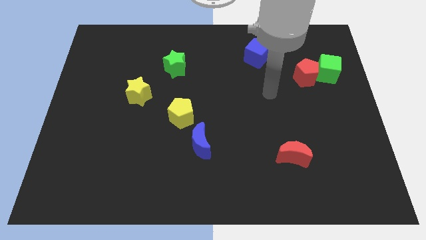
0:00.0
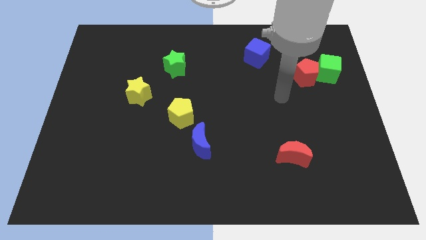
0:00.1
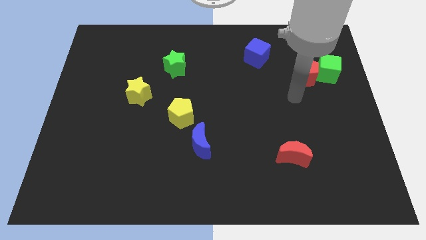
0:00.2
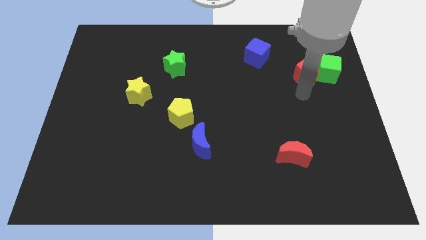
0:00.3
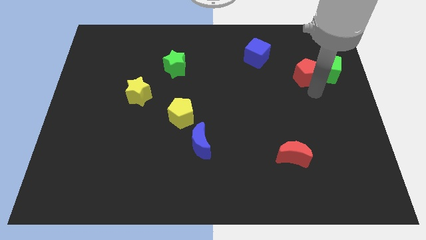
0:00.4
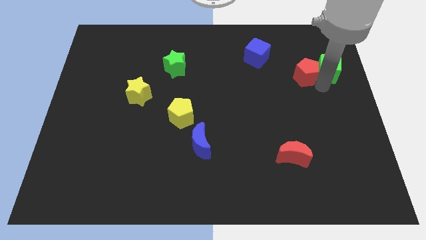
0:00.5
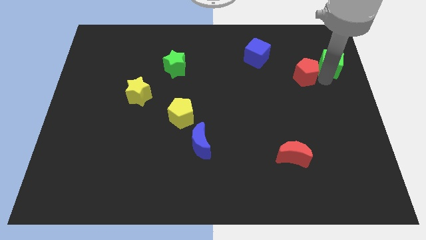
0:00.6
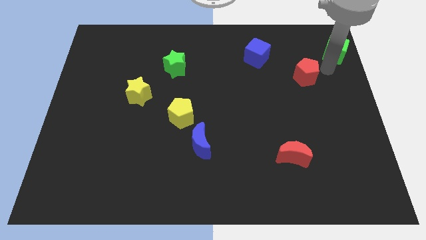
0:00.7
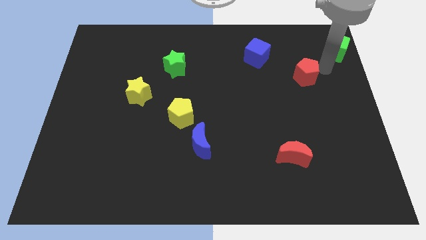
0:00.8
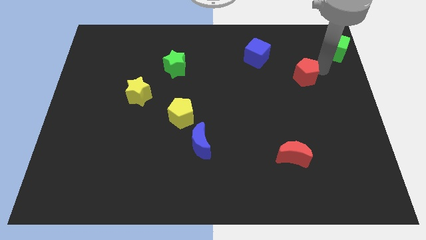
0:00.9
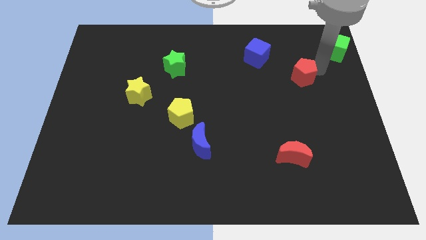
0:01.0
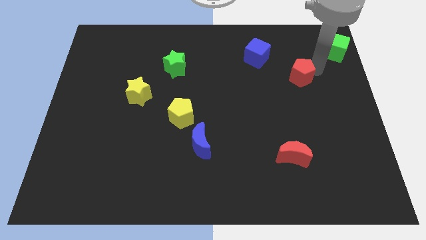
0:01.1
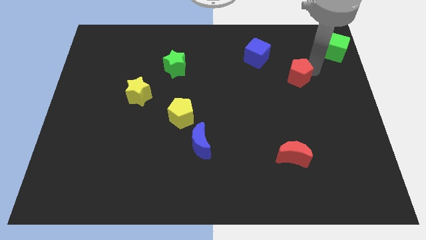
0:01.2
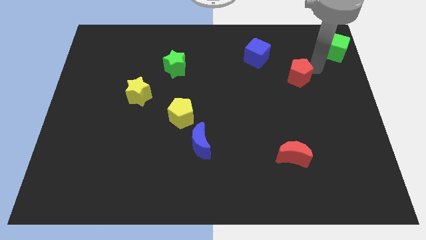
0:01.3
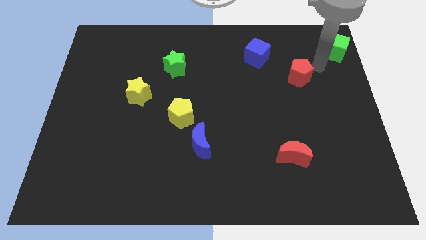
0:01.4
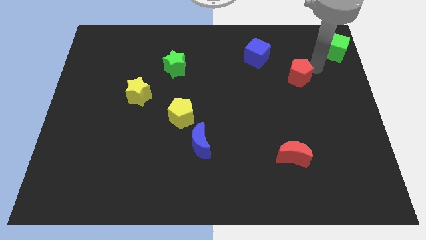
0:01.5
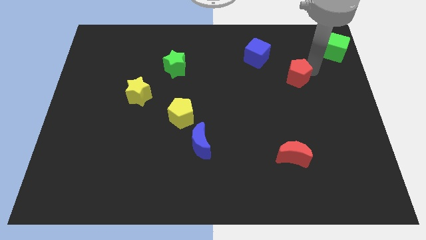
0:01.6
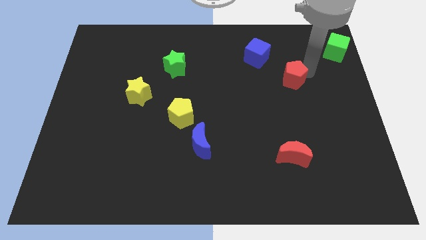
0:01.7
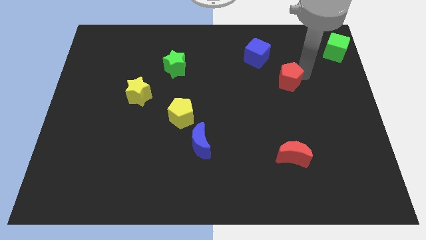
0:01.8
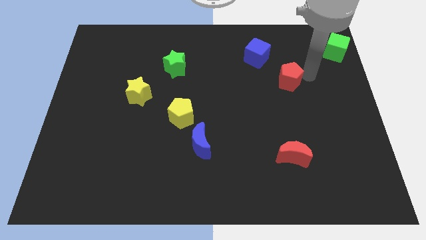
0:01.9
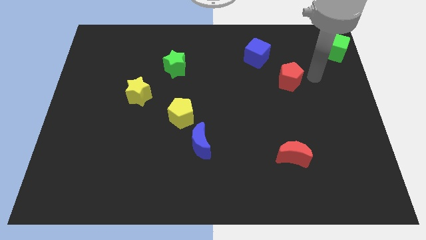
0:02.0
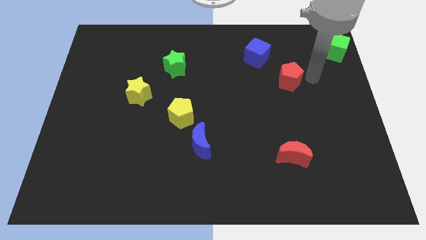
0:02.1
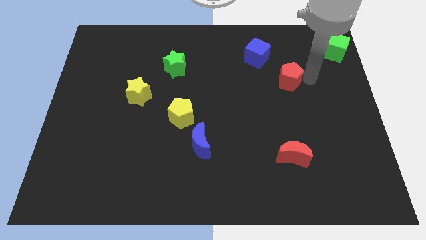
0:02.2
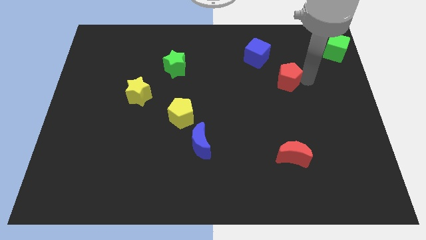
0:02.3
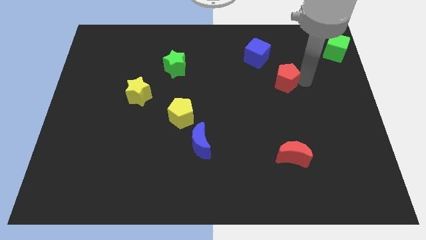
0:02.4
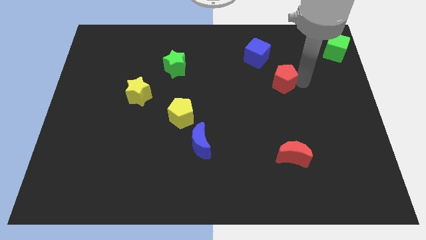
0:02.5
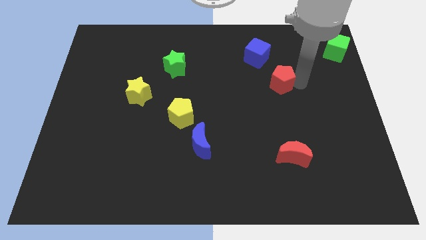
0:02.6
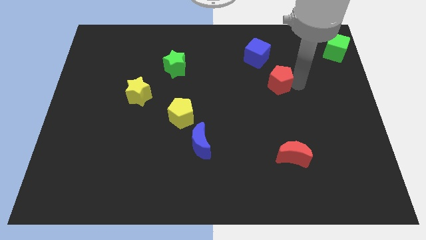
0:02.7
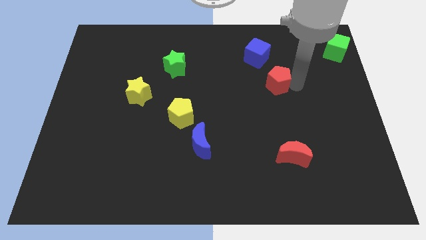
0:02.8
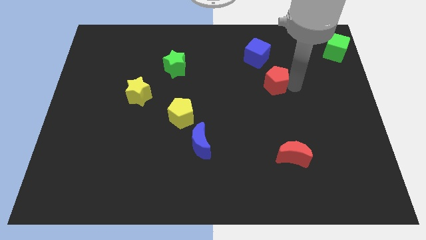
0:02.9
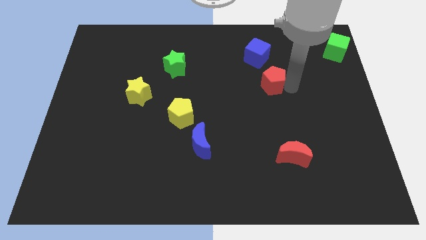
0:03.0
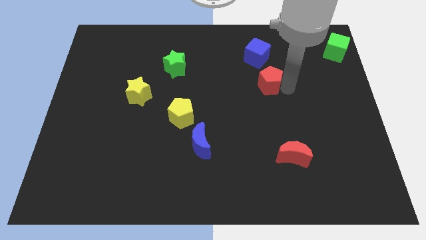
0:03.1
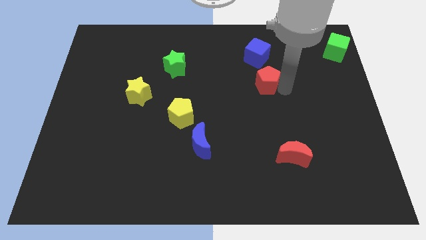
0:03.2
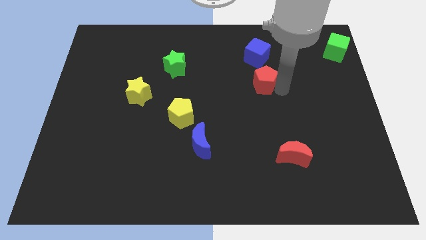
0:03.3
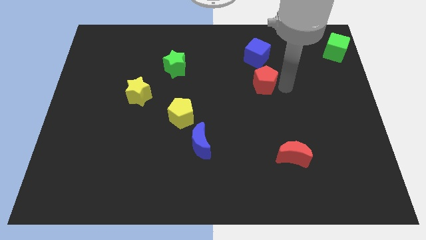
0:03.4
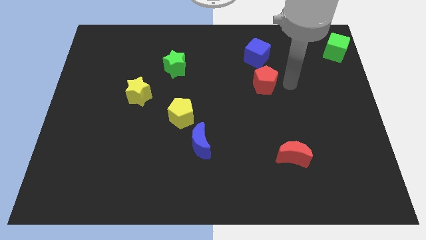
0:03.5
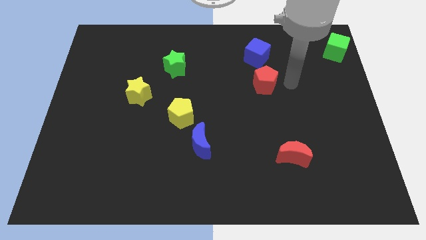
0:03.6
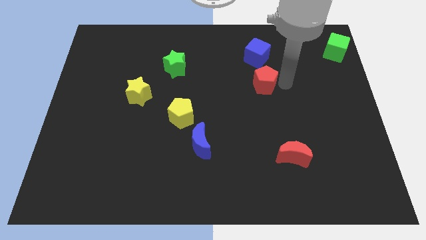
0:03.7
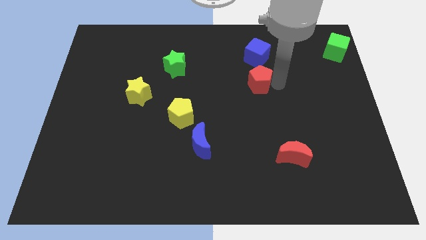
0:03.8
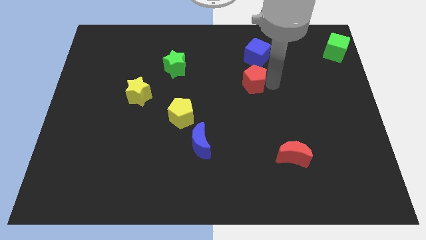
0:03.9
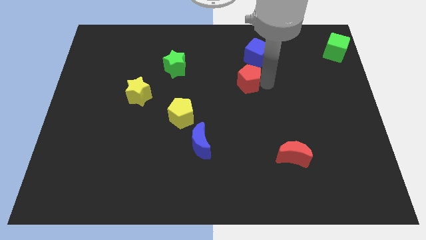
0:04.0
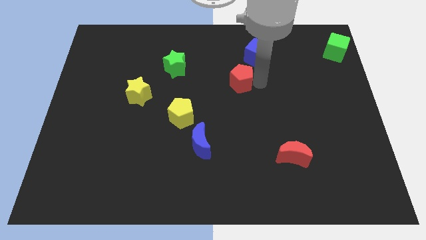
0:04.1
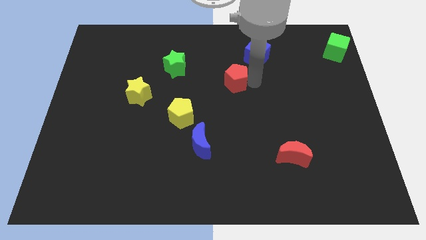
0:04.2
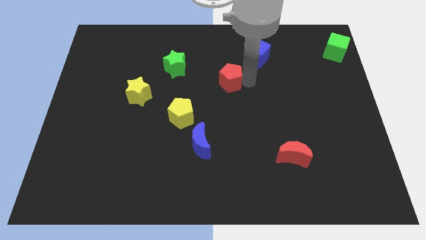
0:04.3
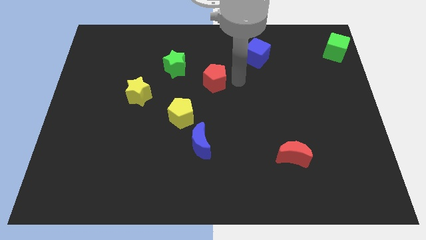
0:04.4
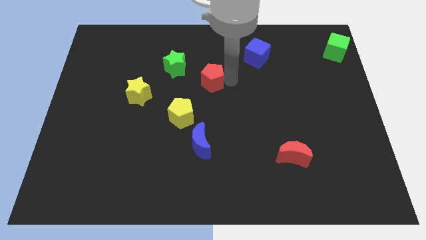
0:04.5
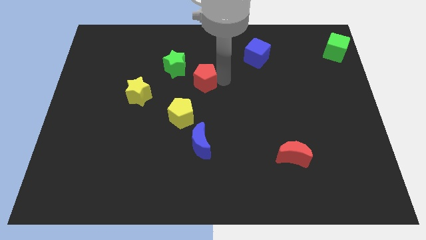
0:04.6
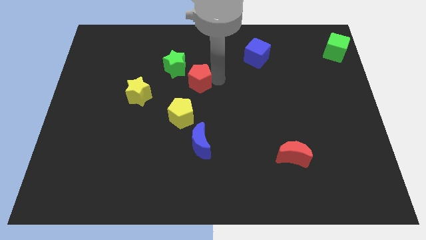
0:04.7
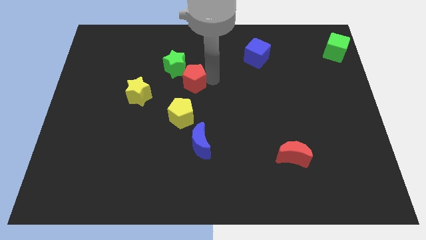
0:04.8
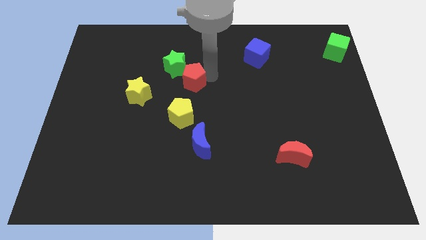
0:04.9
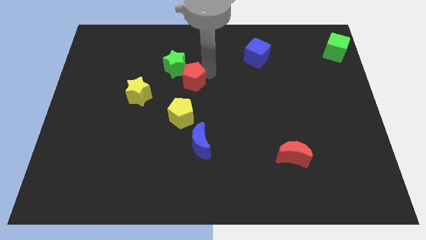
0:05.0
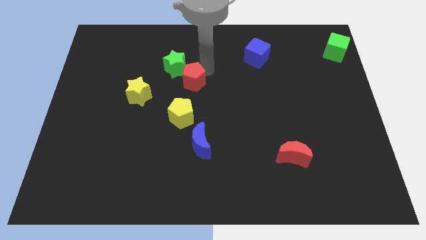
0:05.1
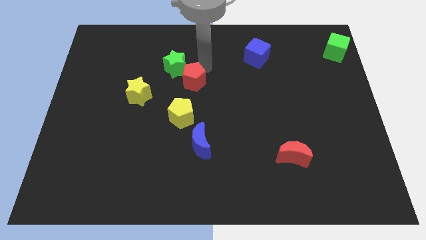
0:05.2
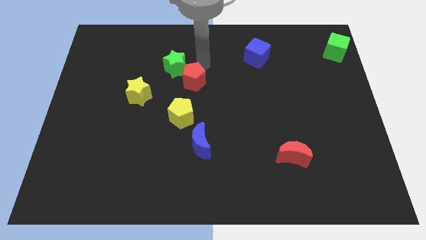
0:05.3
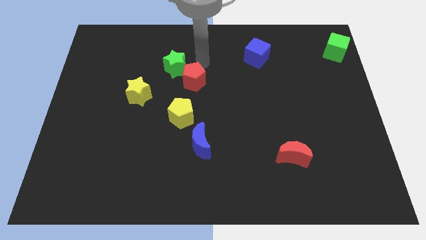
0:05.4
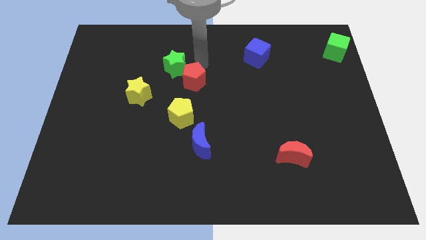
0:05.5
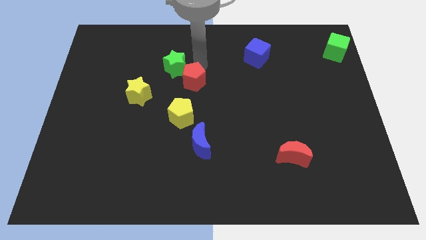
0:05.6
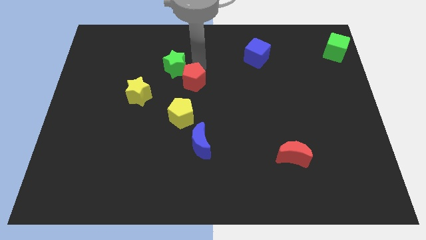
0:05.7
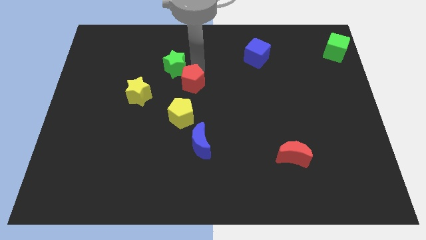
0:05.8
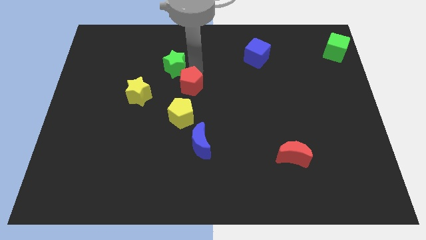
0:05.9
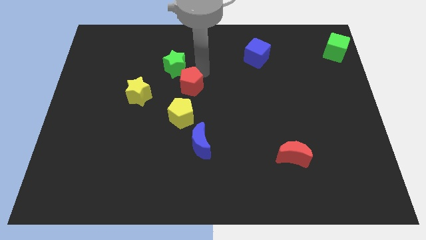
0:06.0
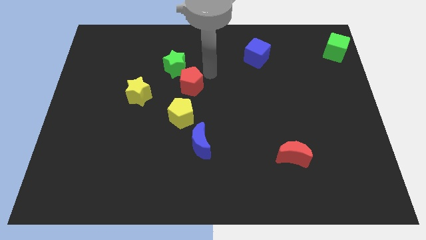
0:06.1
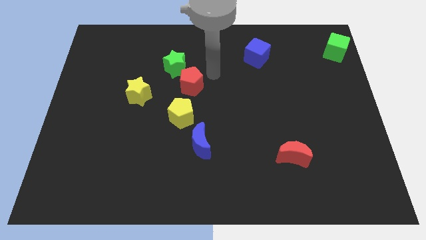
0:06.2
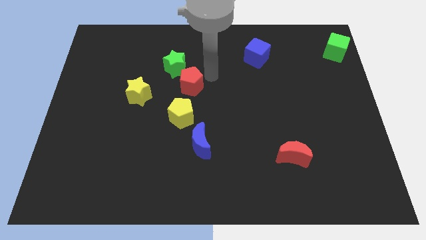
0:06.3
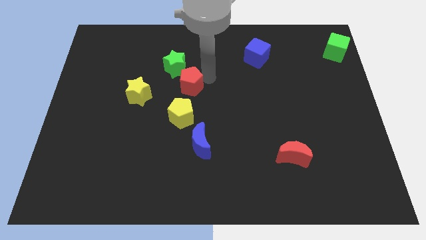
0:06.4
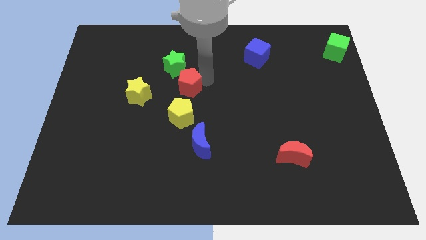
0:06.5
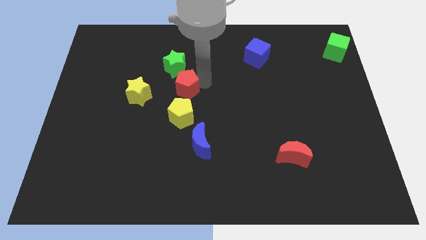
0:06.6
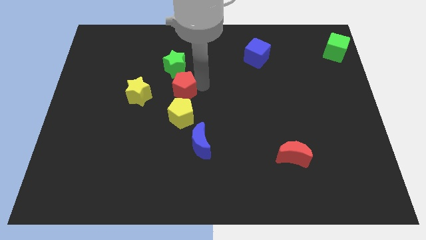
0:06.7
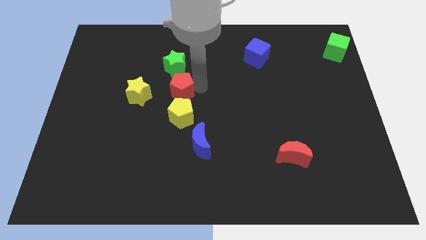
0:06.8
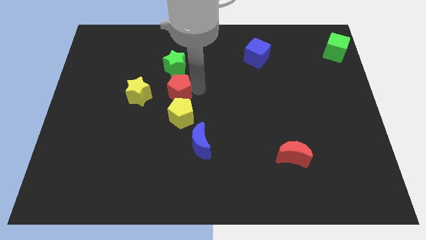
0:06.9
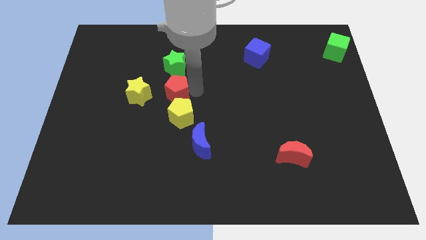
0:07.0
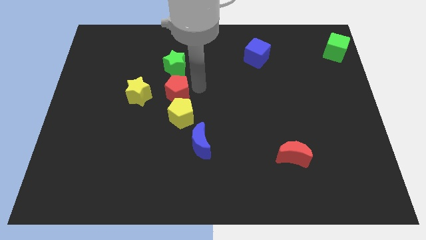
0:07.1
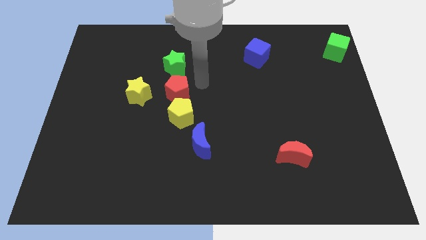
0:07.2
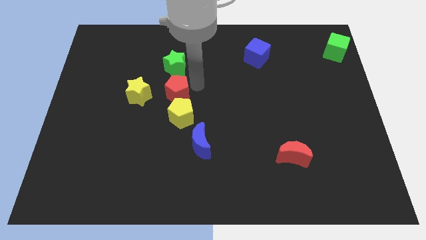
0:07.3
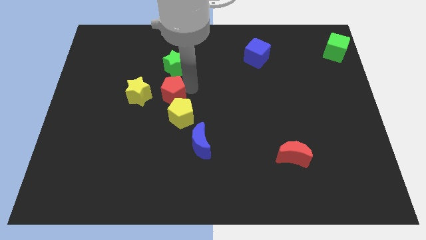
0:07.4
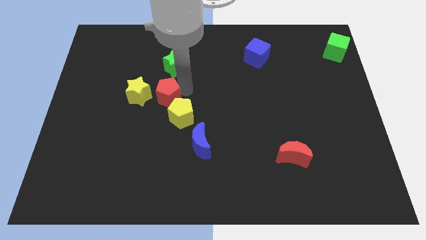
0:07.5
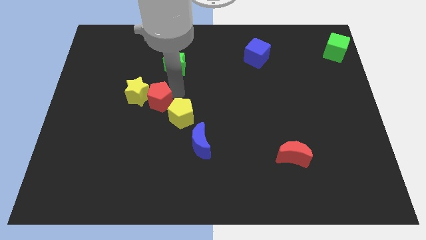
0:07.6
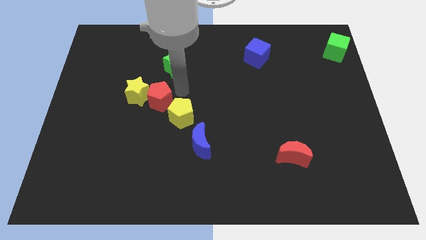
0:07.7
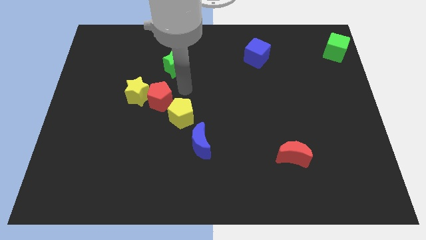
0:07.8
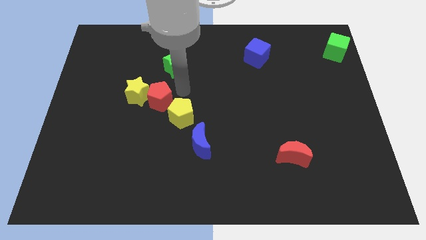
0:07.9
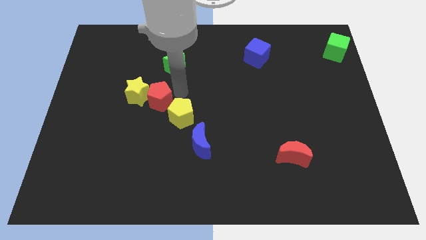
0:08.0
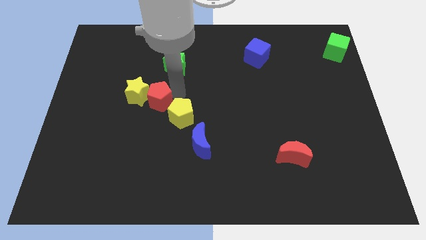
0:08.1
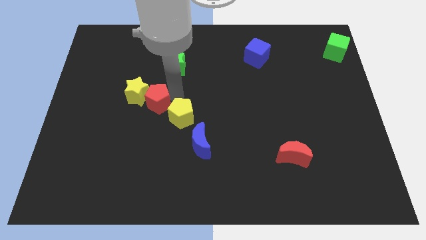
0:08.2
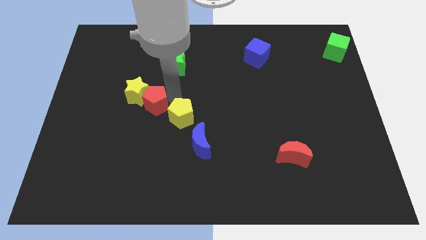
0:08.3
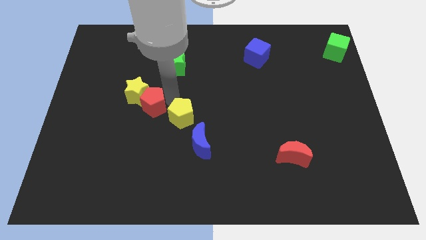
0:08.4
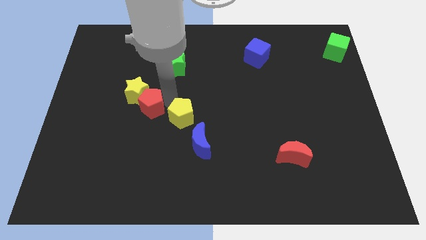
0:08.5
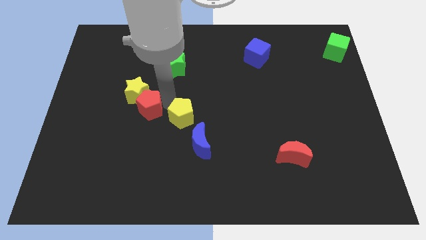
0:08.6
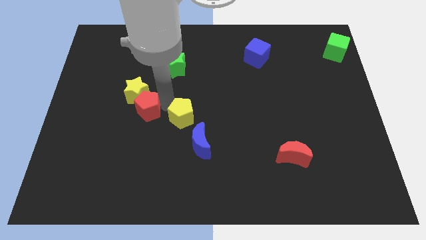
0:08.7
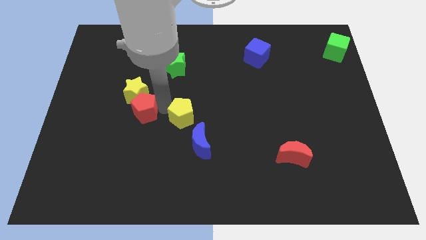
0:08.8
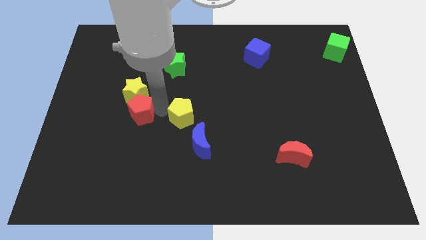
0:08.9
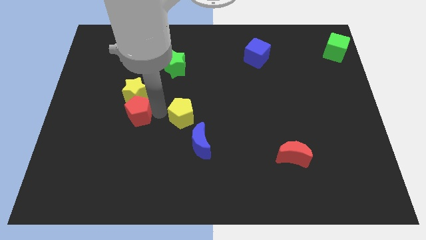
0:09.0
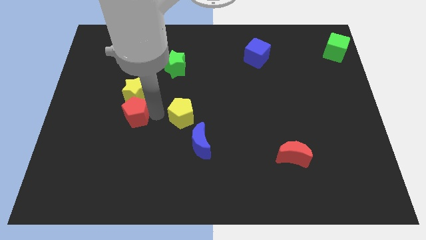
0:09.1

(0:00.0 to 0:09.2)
slide the red pentagon diagonally down and to the left of the yellow star
